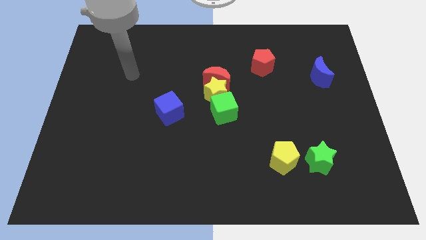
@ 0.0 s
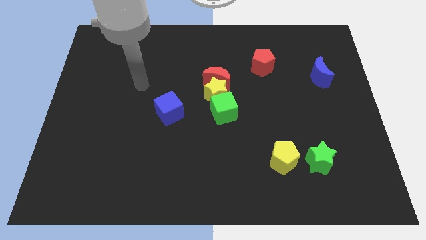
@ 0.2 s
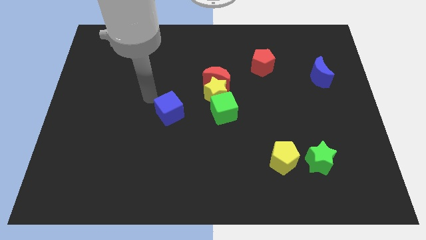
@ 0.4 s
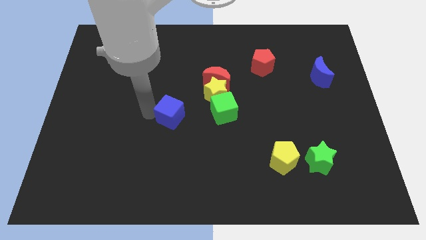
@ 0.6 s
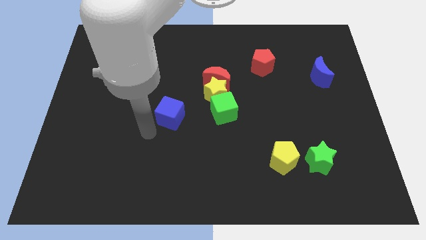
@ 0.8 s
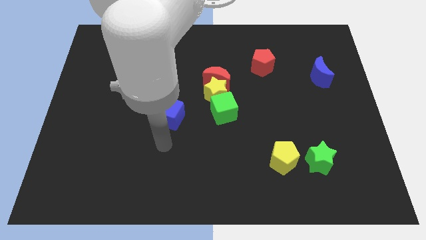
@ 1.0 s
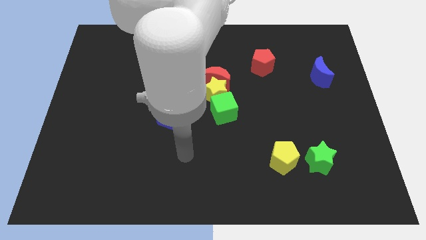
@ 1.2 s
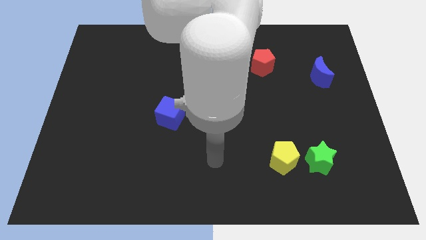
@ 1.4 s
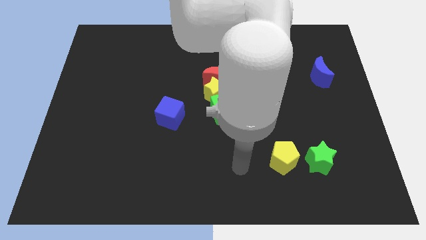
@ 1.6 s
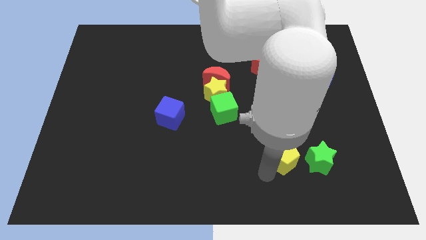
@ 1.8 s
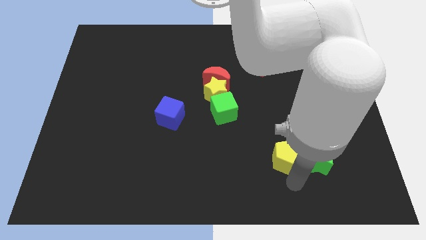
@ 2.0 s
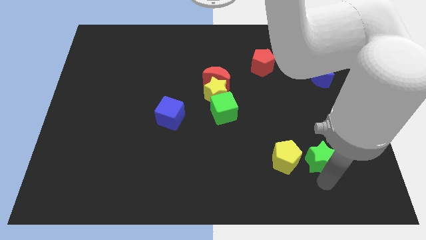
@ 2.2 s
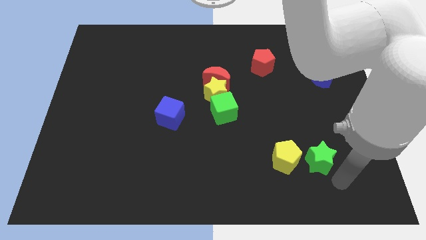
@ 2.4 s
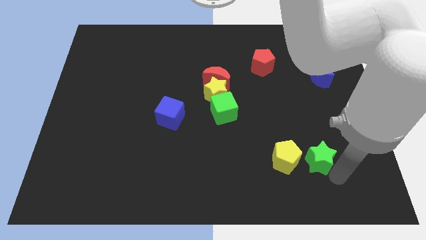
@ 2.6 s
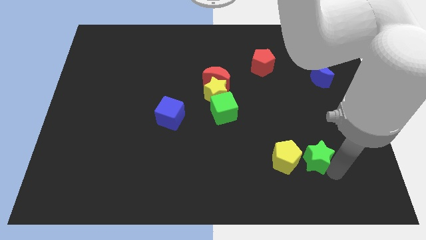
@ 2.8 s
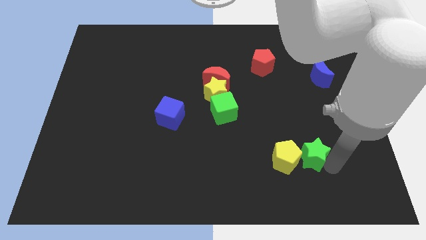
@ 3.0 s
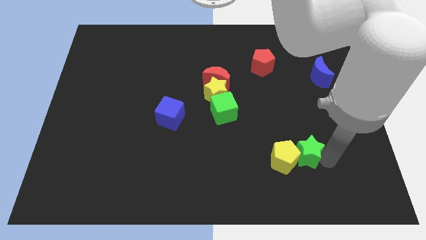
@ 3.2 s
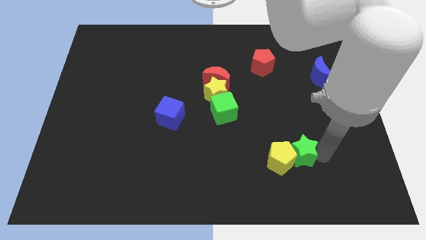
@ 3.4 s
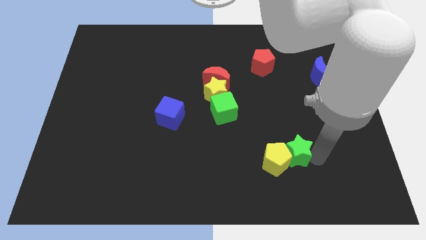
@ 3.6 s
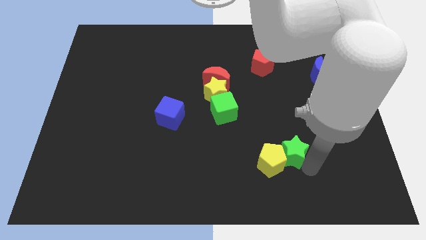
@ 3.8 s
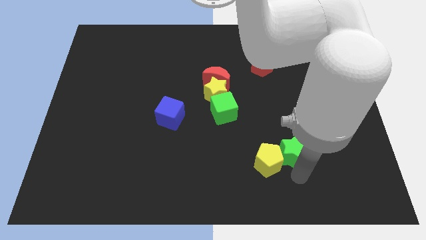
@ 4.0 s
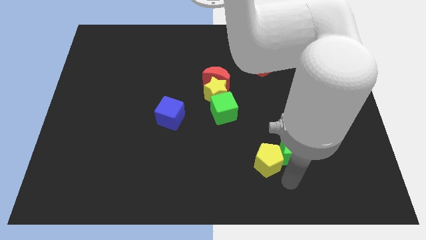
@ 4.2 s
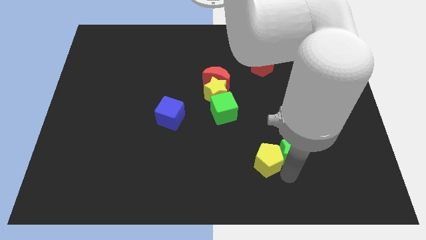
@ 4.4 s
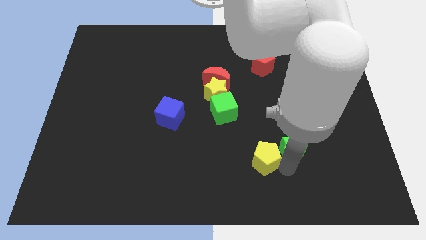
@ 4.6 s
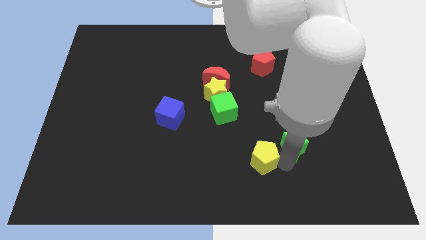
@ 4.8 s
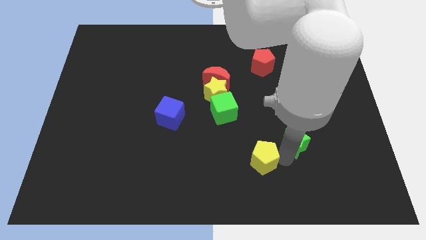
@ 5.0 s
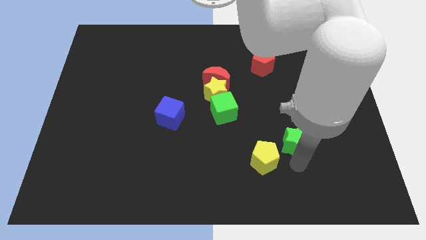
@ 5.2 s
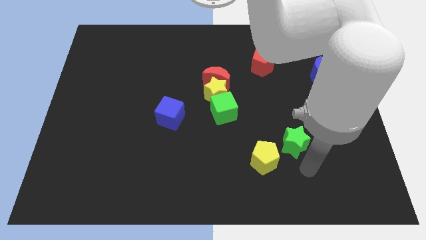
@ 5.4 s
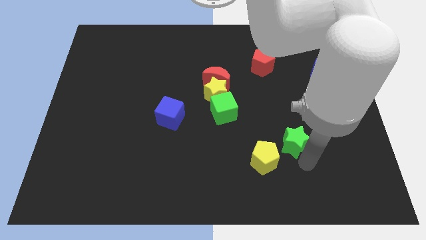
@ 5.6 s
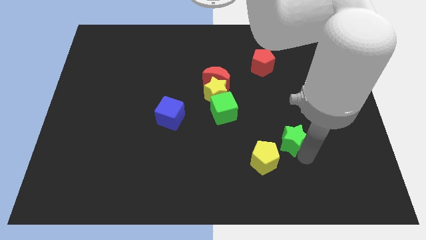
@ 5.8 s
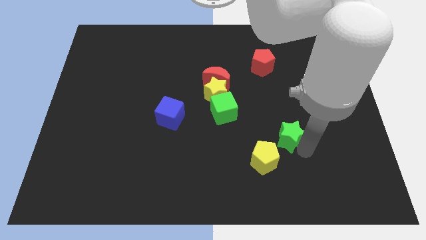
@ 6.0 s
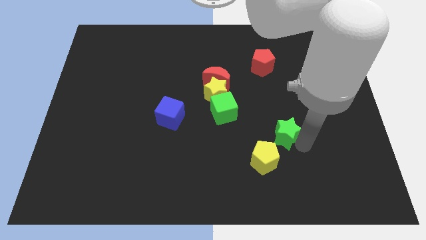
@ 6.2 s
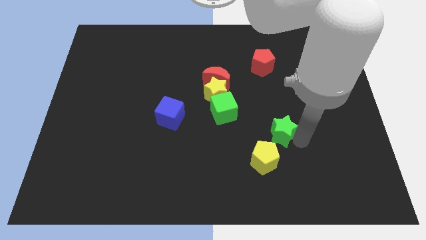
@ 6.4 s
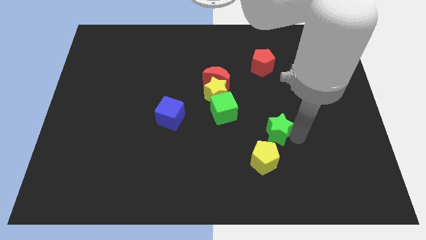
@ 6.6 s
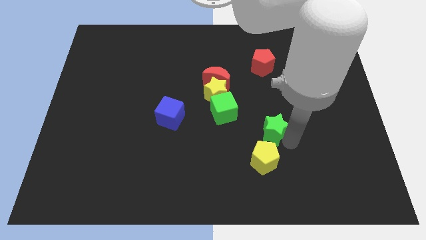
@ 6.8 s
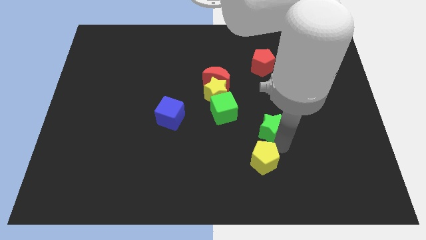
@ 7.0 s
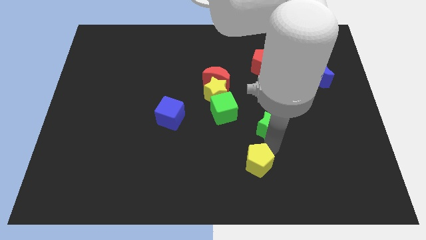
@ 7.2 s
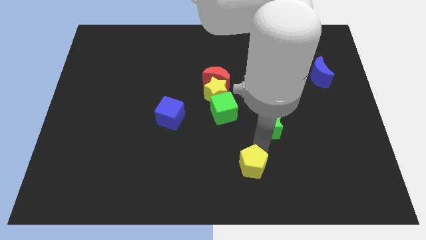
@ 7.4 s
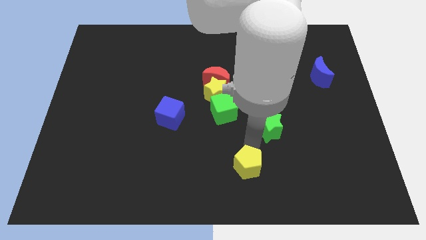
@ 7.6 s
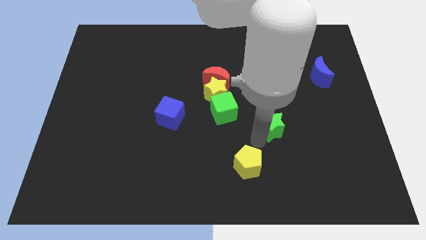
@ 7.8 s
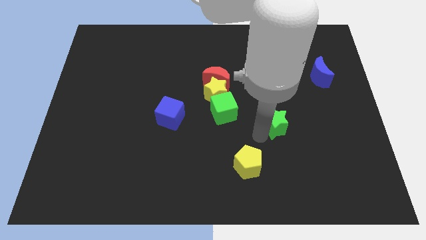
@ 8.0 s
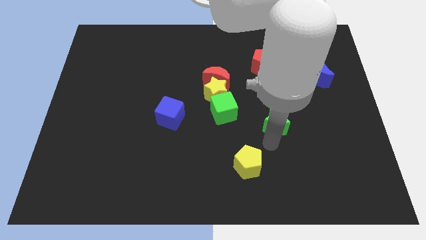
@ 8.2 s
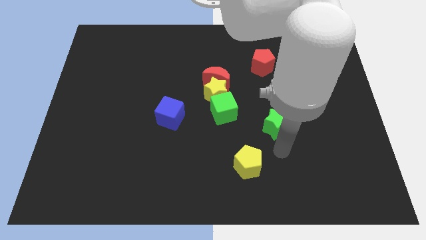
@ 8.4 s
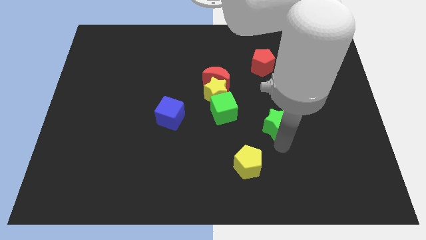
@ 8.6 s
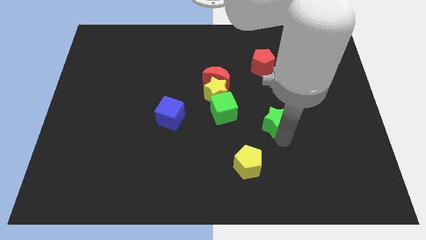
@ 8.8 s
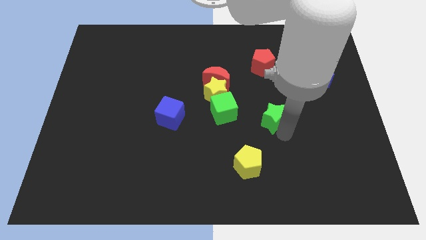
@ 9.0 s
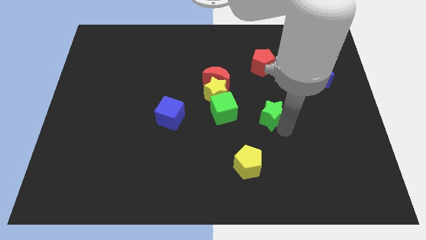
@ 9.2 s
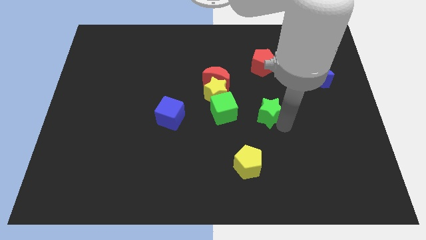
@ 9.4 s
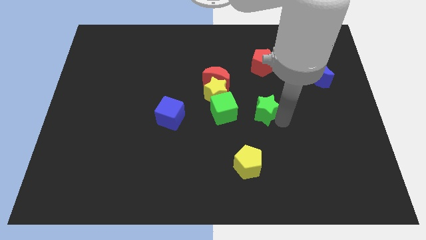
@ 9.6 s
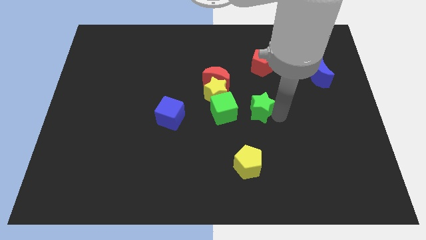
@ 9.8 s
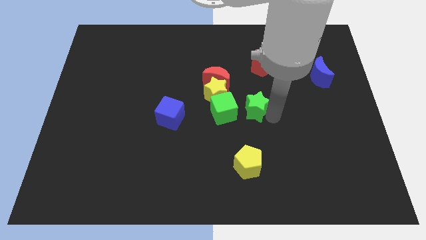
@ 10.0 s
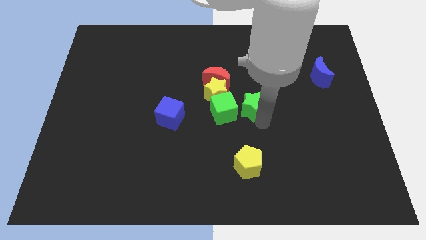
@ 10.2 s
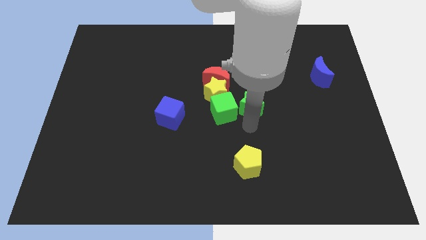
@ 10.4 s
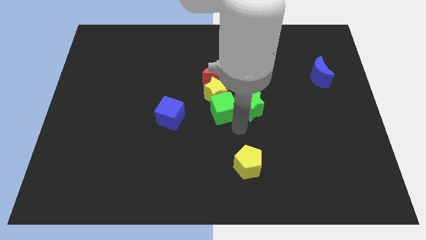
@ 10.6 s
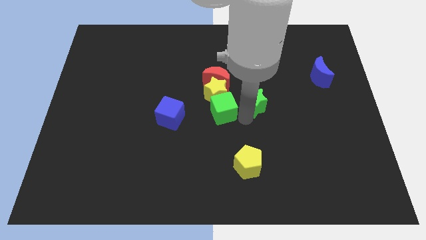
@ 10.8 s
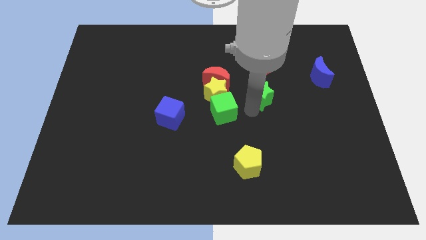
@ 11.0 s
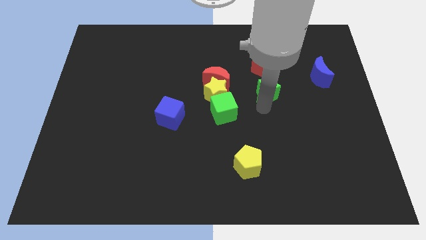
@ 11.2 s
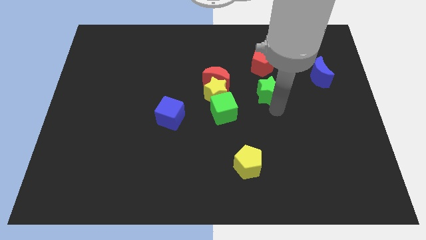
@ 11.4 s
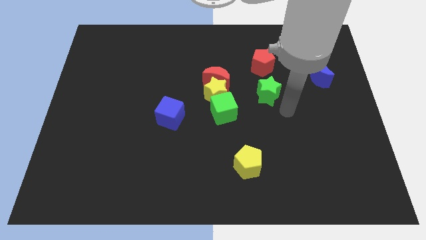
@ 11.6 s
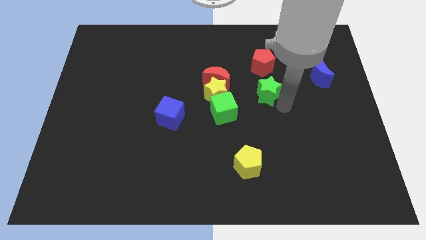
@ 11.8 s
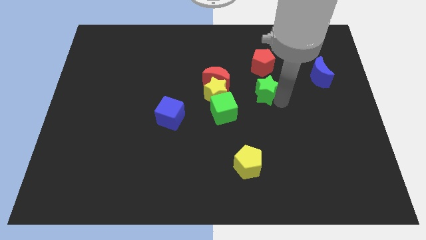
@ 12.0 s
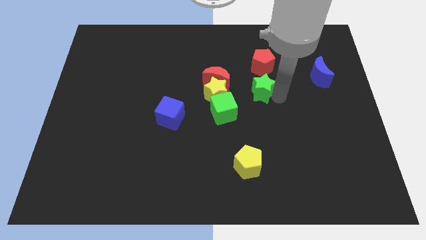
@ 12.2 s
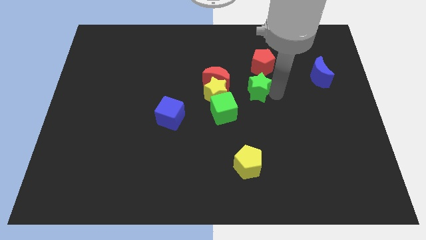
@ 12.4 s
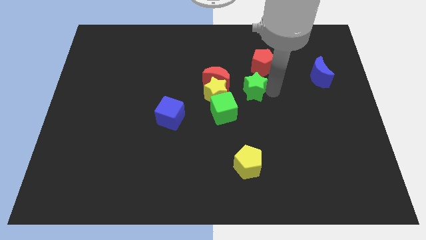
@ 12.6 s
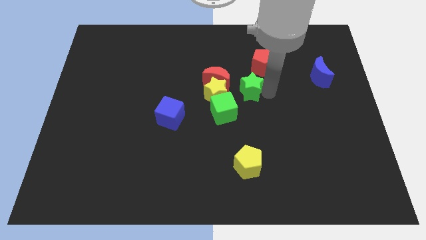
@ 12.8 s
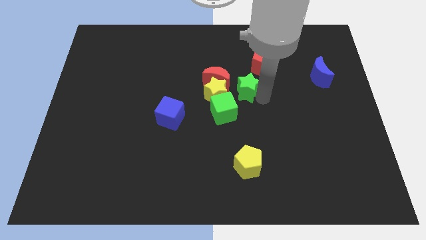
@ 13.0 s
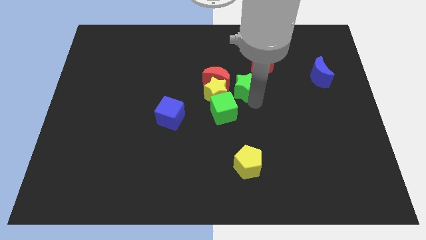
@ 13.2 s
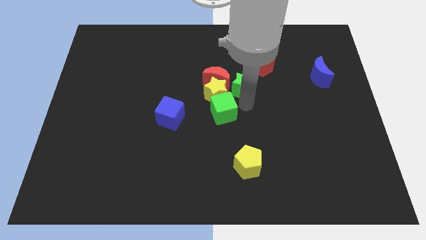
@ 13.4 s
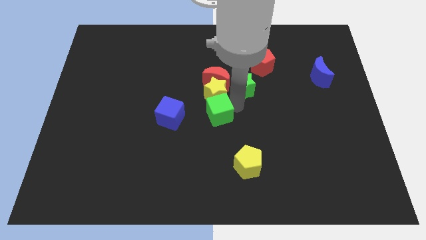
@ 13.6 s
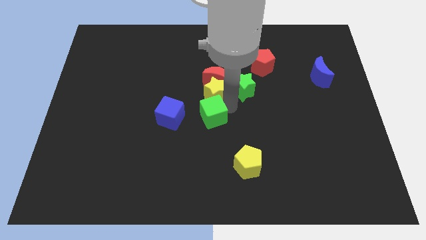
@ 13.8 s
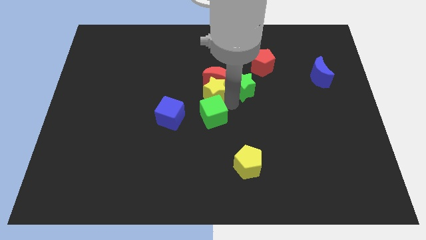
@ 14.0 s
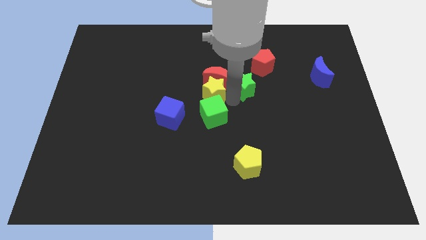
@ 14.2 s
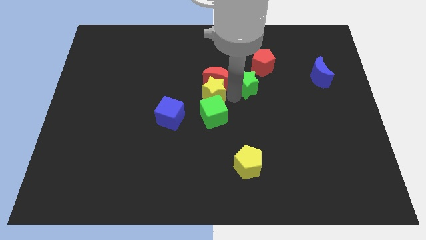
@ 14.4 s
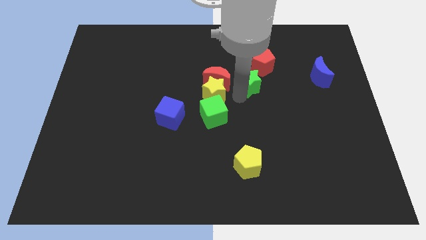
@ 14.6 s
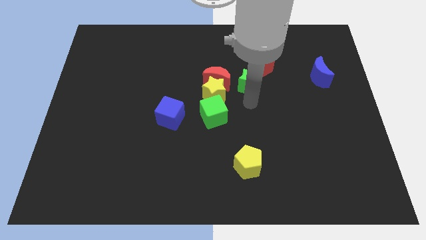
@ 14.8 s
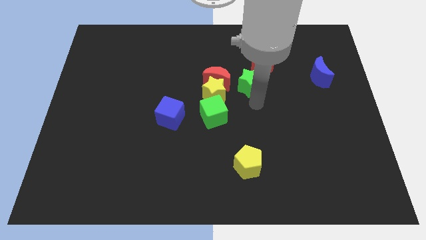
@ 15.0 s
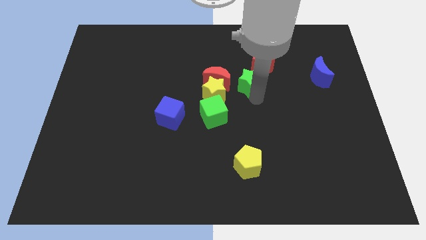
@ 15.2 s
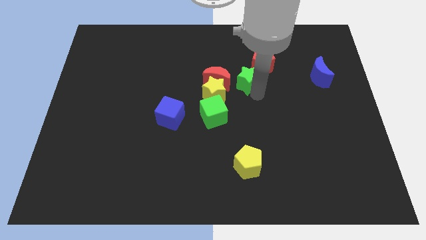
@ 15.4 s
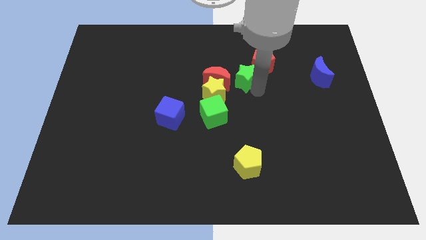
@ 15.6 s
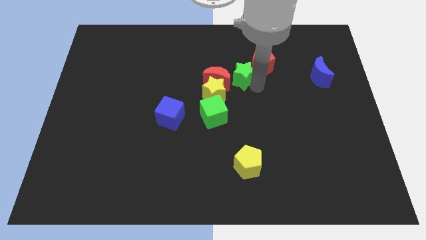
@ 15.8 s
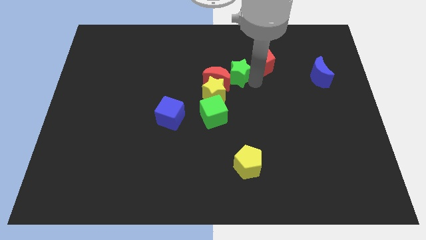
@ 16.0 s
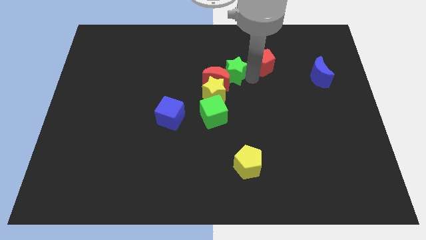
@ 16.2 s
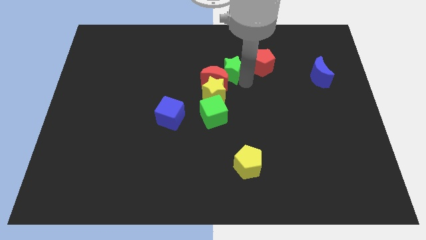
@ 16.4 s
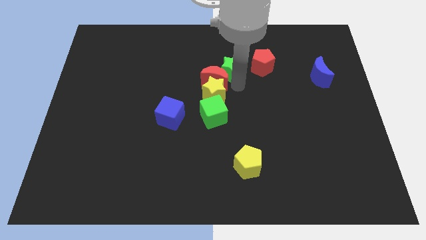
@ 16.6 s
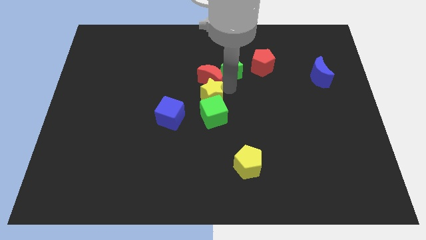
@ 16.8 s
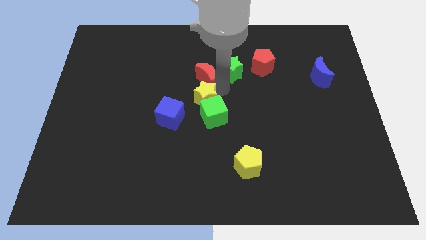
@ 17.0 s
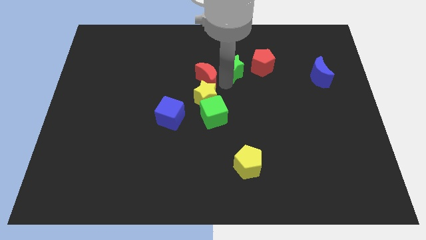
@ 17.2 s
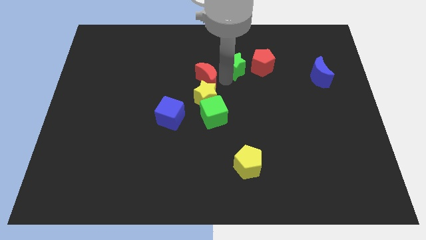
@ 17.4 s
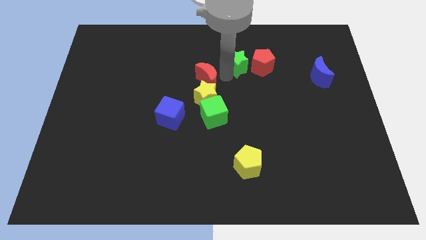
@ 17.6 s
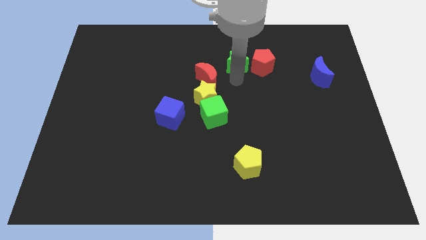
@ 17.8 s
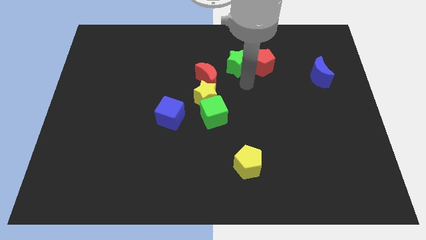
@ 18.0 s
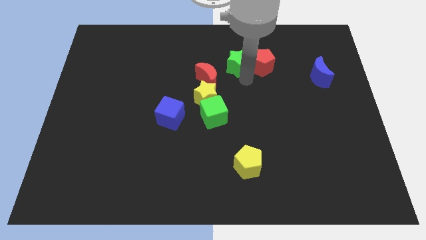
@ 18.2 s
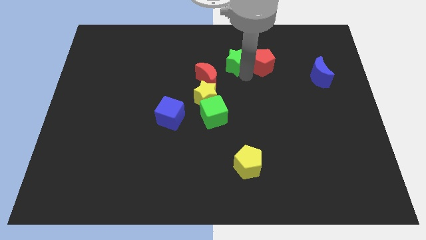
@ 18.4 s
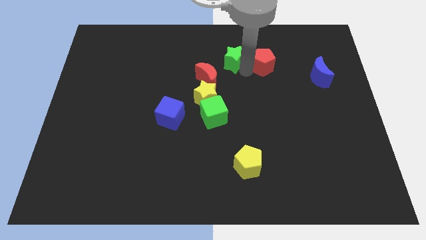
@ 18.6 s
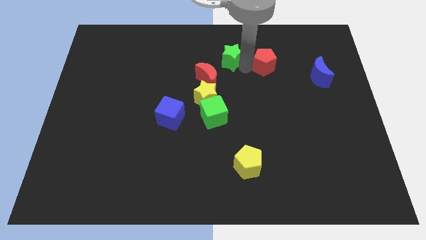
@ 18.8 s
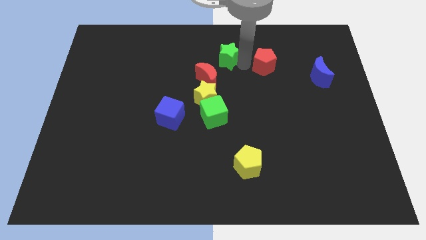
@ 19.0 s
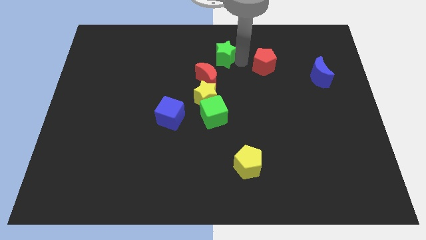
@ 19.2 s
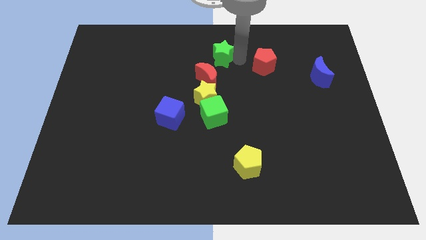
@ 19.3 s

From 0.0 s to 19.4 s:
slide the green star to the top side
